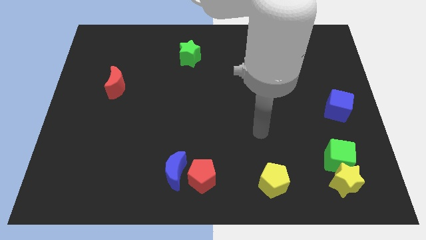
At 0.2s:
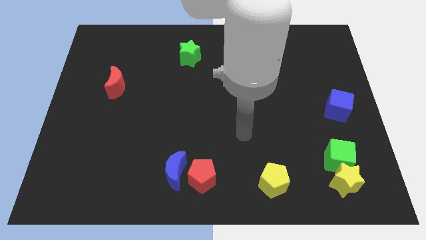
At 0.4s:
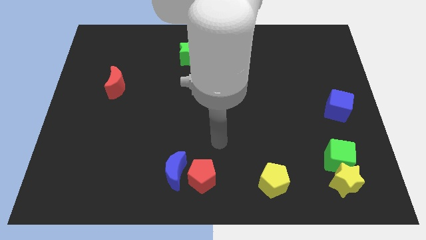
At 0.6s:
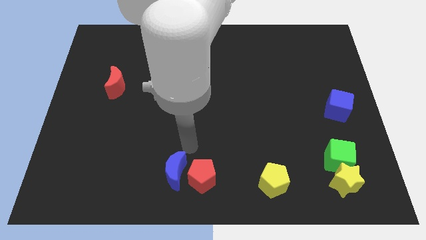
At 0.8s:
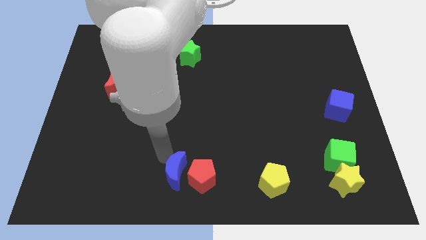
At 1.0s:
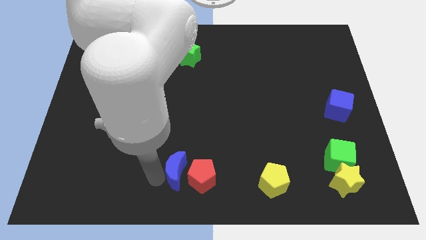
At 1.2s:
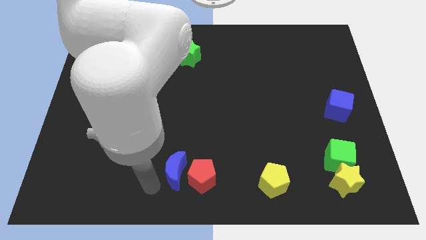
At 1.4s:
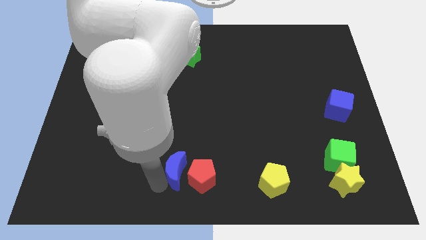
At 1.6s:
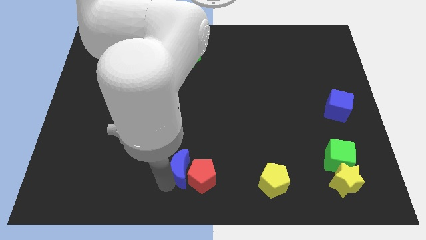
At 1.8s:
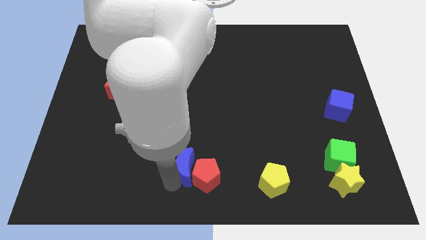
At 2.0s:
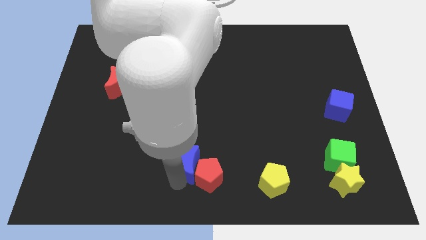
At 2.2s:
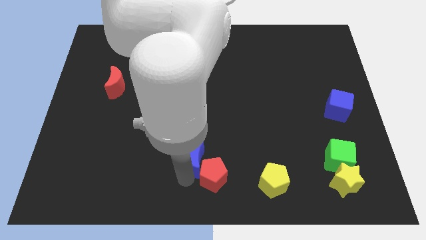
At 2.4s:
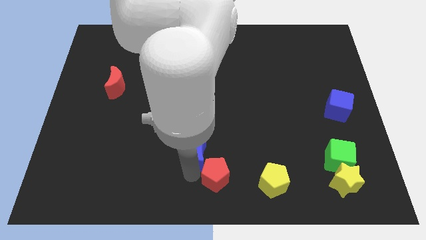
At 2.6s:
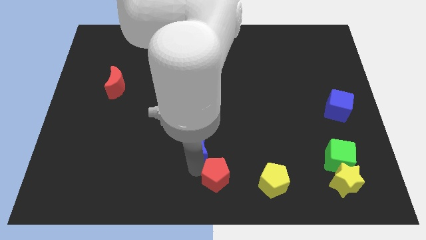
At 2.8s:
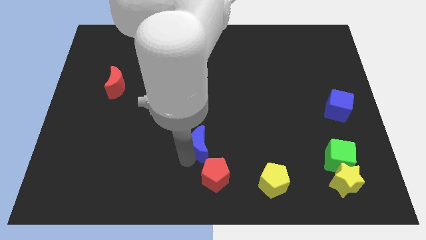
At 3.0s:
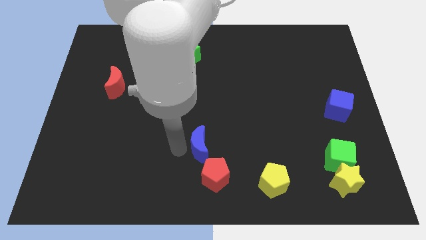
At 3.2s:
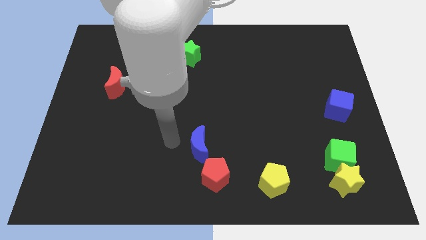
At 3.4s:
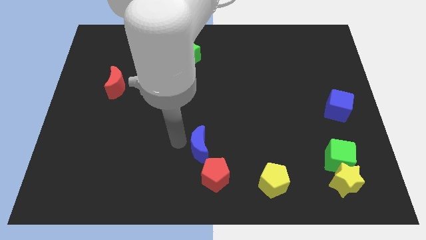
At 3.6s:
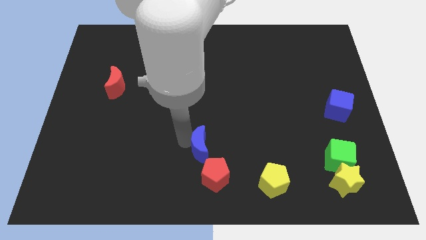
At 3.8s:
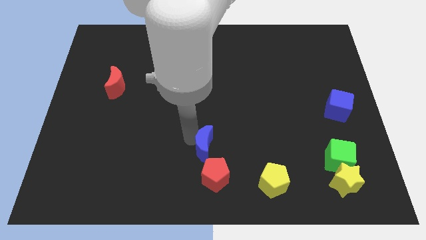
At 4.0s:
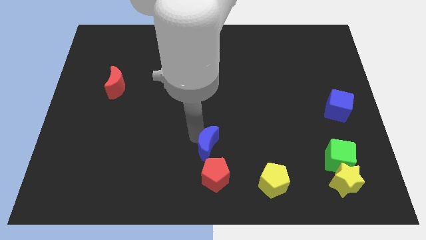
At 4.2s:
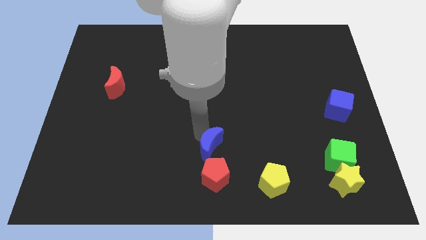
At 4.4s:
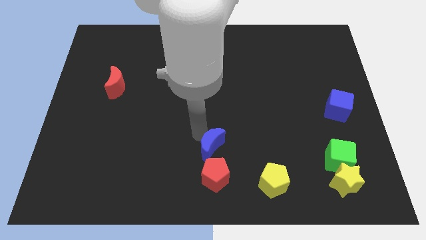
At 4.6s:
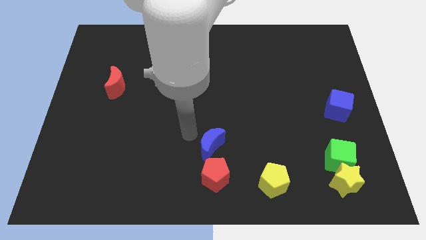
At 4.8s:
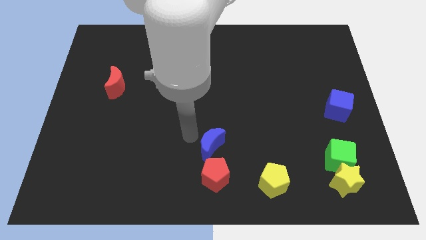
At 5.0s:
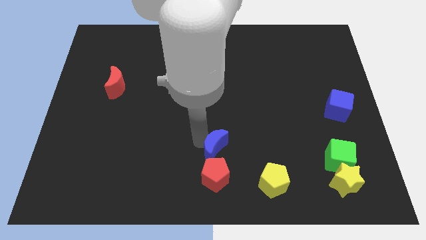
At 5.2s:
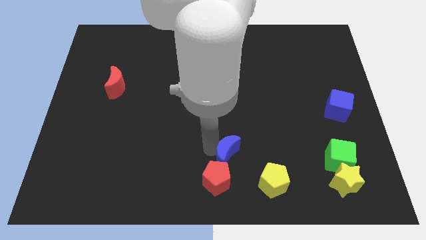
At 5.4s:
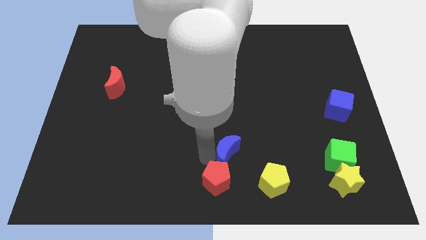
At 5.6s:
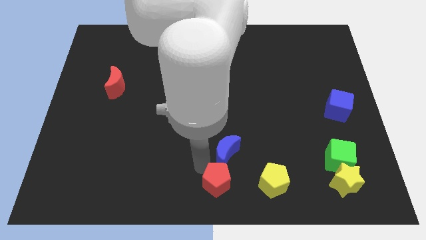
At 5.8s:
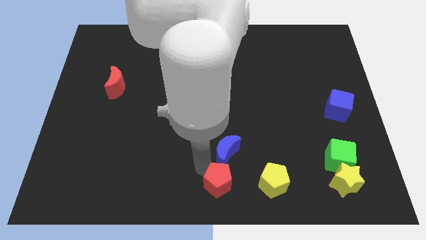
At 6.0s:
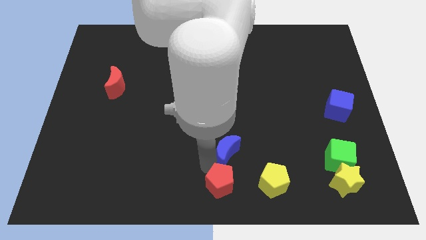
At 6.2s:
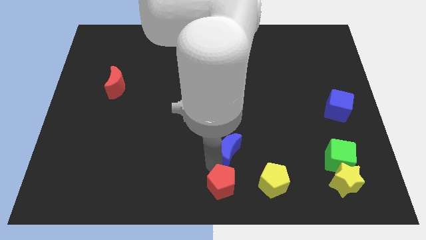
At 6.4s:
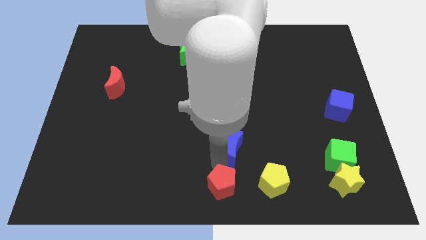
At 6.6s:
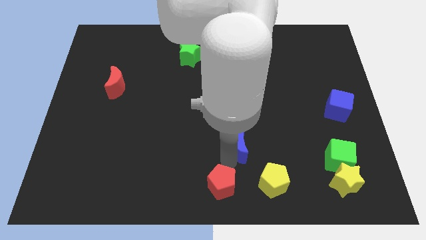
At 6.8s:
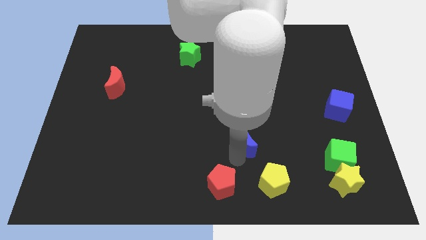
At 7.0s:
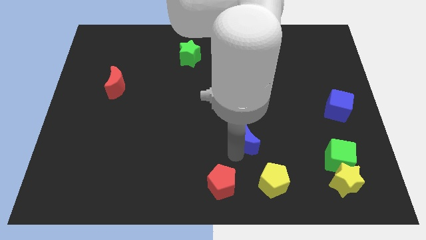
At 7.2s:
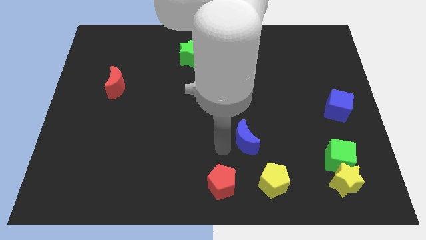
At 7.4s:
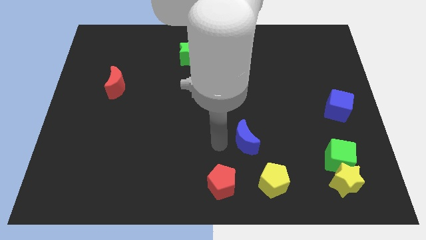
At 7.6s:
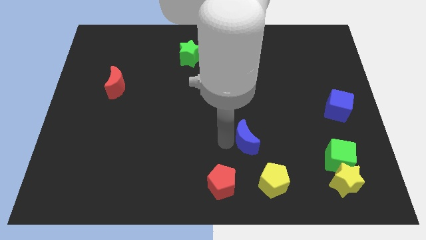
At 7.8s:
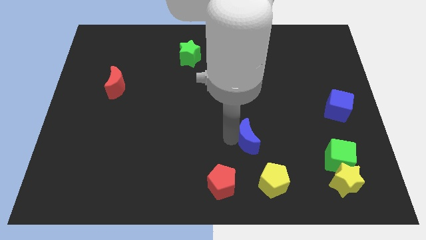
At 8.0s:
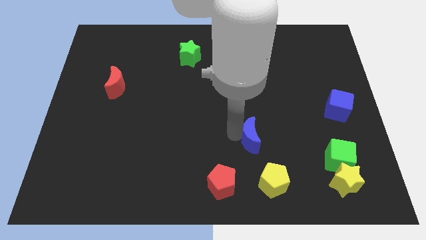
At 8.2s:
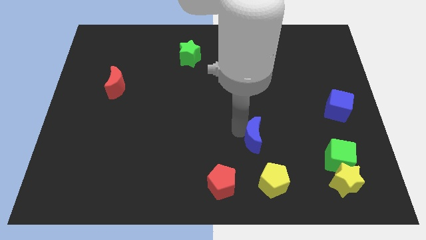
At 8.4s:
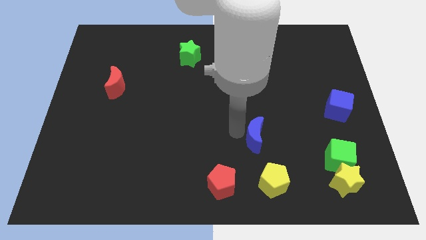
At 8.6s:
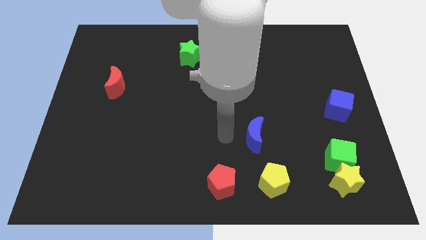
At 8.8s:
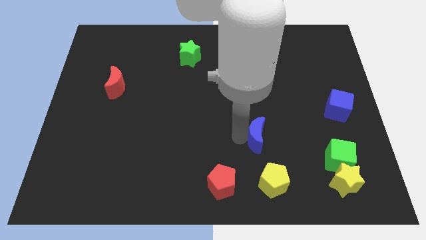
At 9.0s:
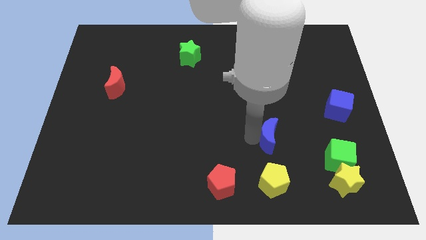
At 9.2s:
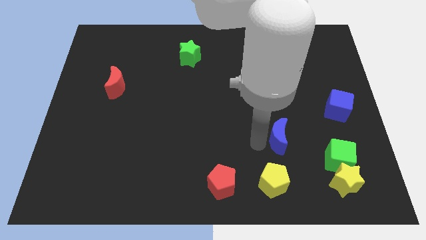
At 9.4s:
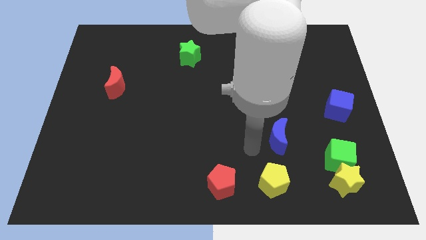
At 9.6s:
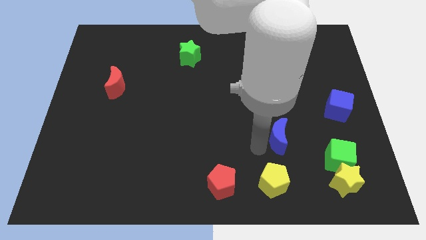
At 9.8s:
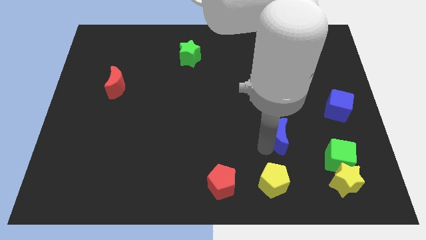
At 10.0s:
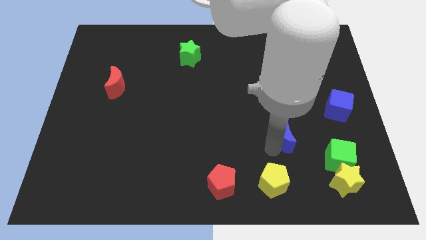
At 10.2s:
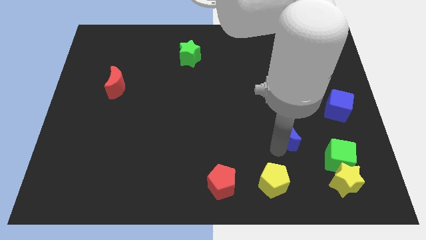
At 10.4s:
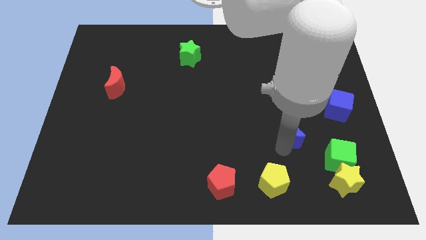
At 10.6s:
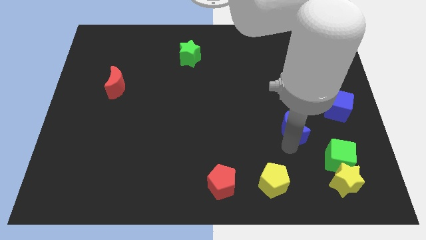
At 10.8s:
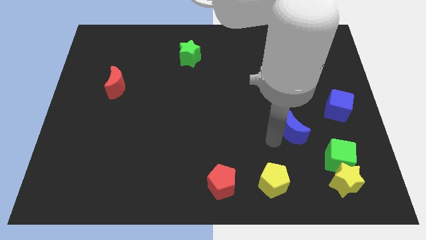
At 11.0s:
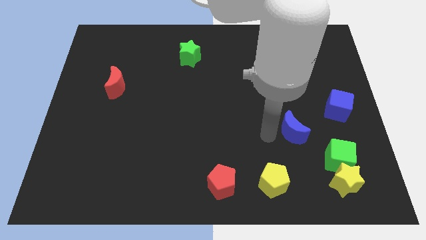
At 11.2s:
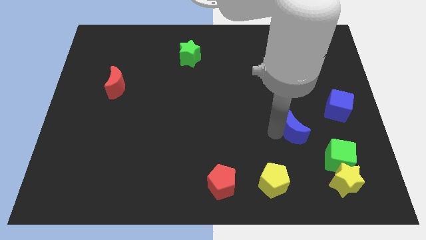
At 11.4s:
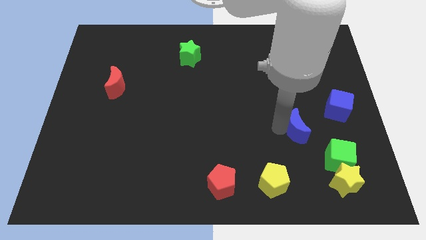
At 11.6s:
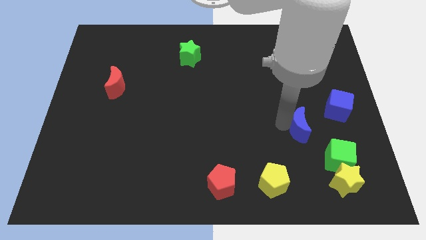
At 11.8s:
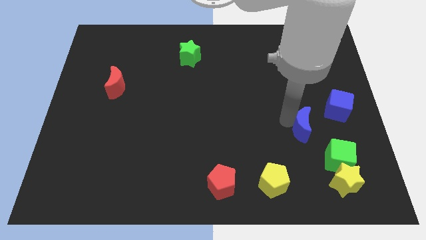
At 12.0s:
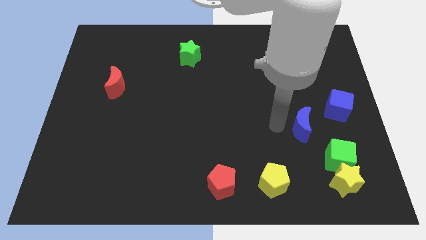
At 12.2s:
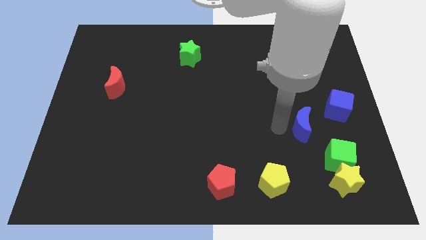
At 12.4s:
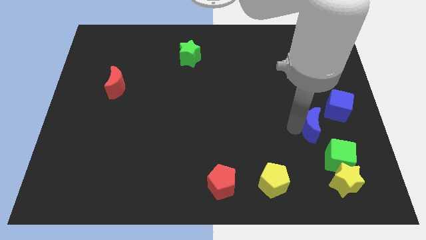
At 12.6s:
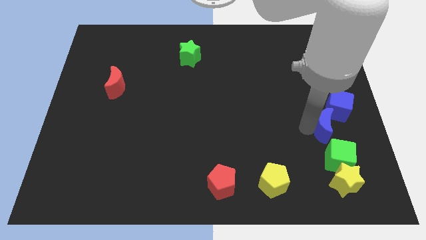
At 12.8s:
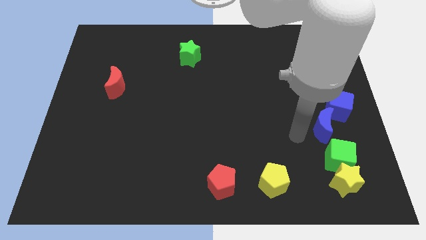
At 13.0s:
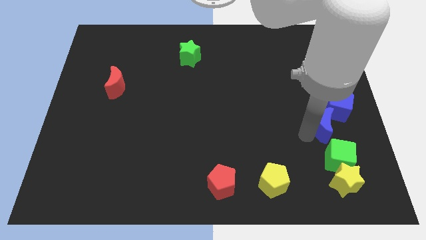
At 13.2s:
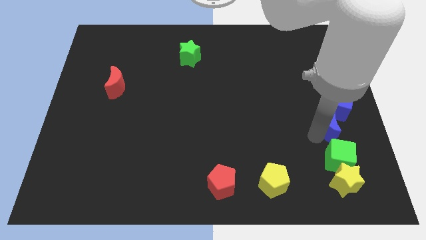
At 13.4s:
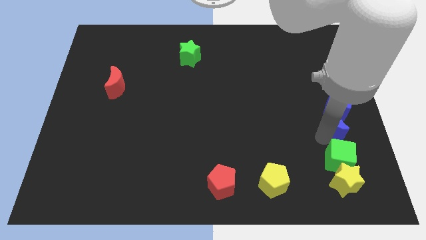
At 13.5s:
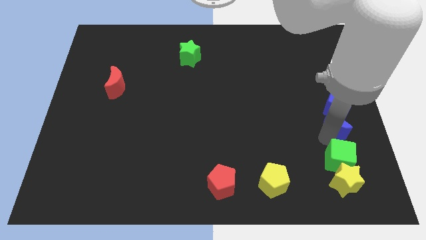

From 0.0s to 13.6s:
slide the blue moon to the center right
